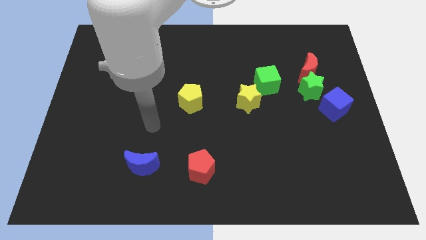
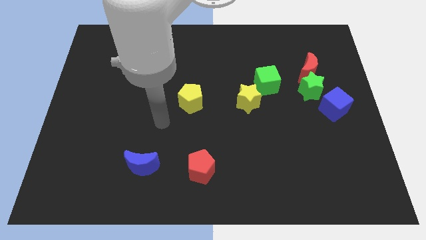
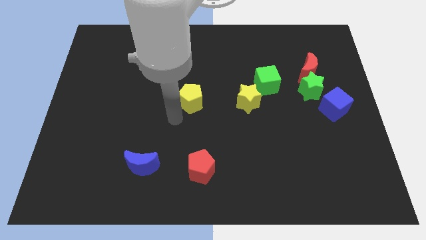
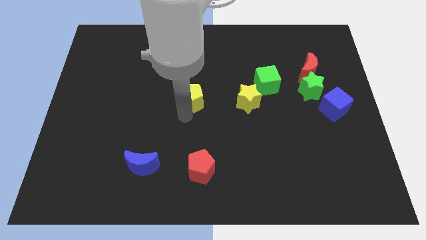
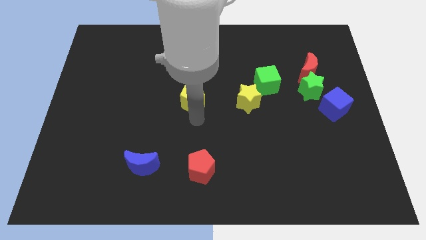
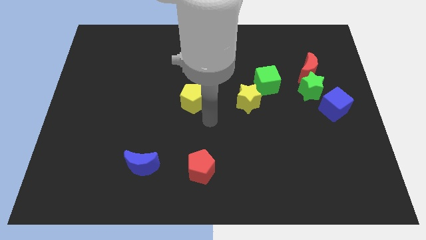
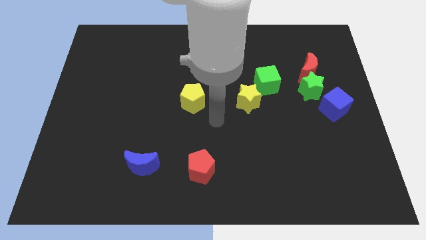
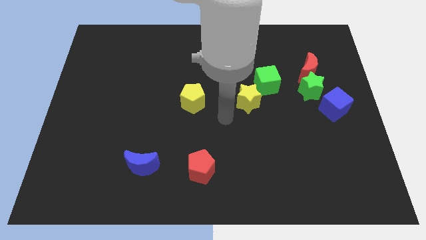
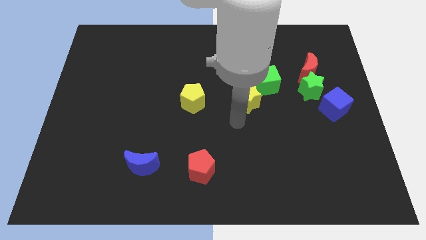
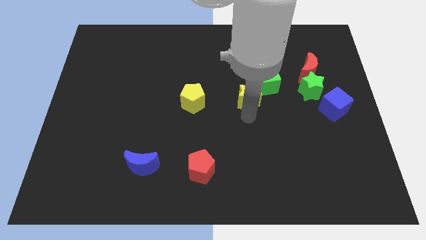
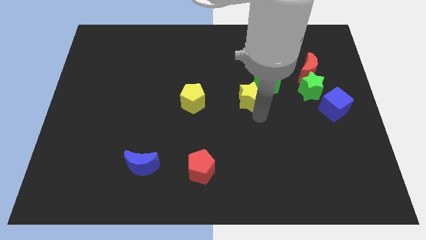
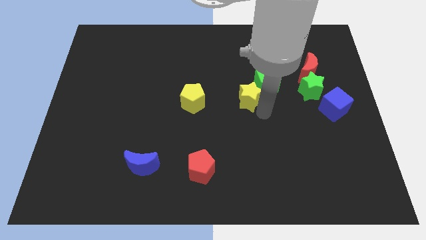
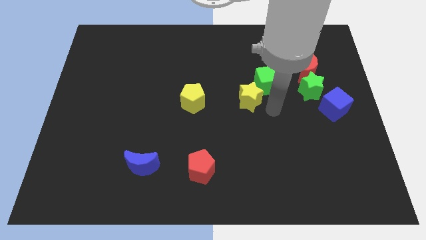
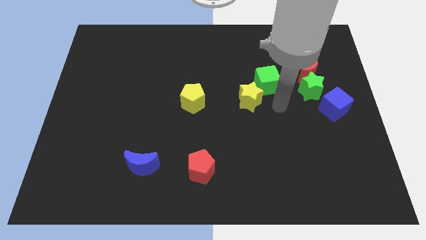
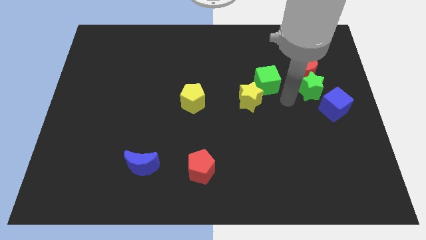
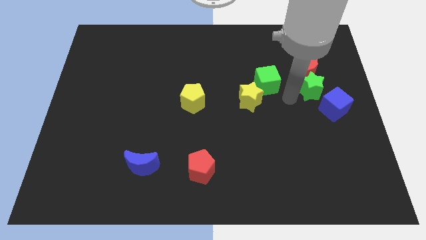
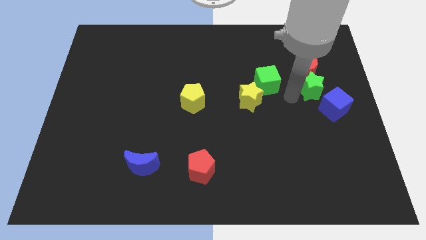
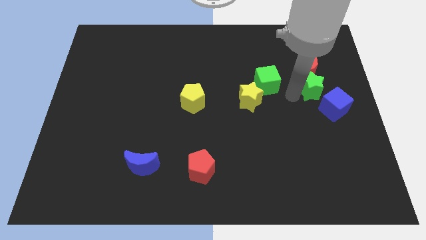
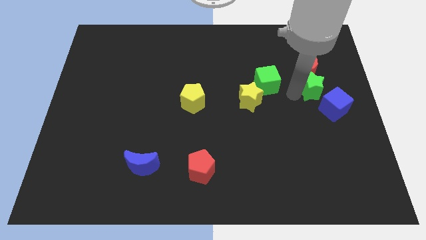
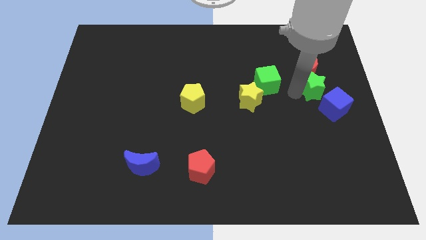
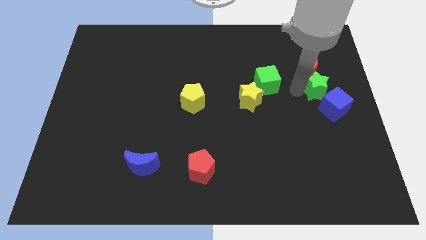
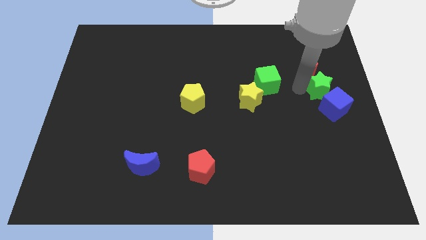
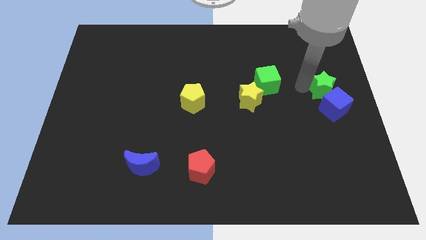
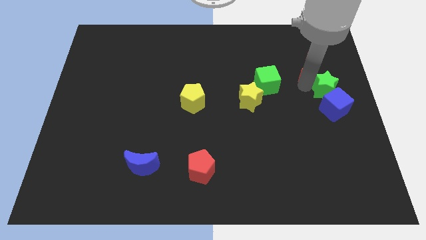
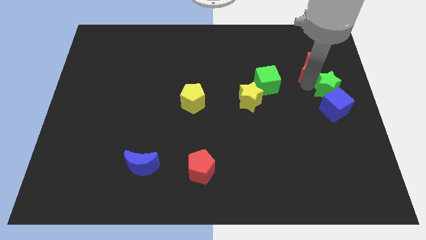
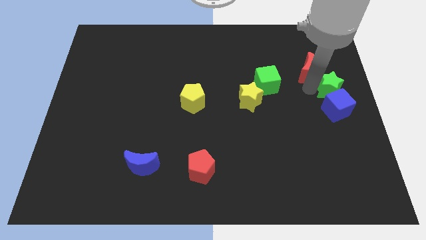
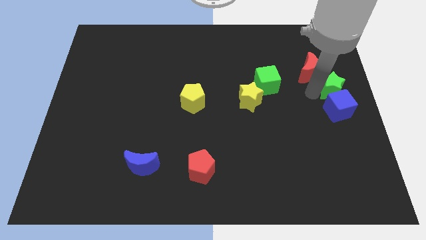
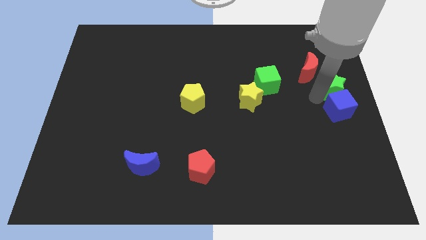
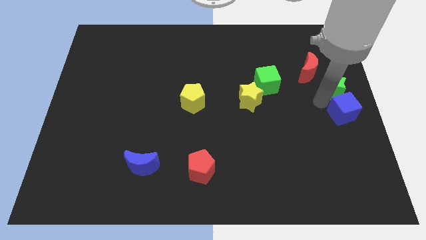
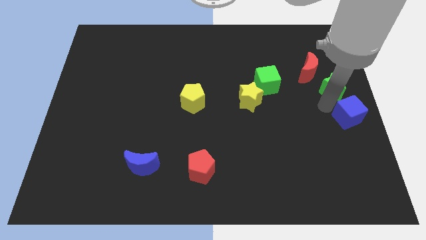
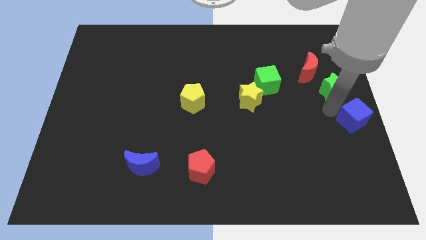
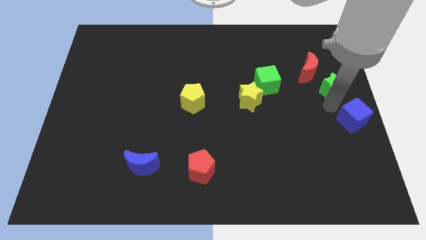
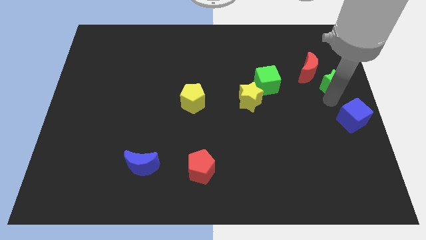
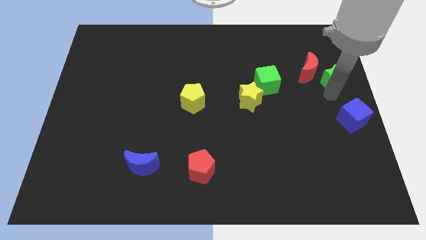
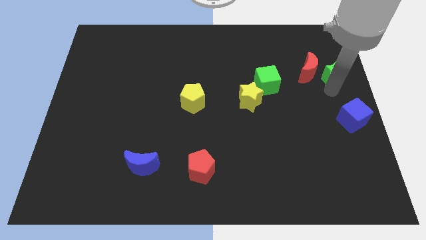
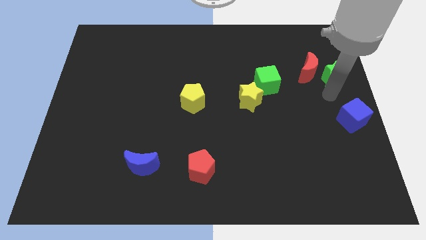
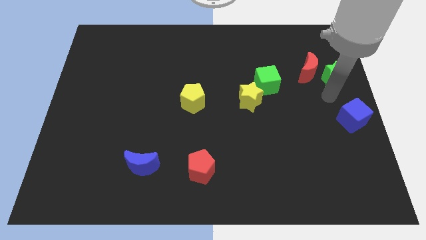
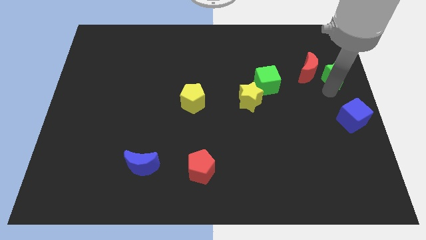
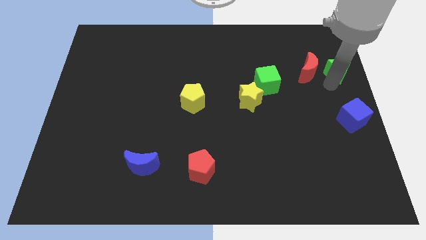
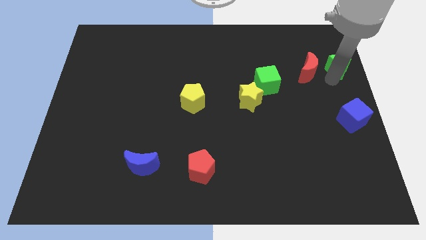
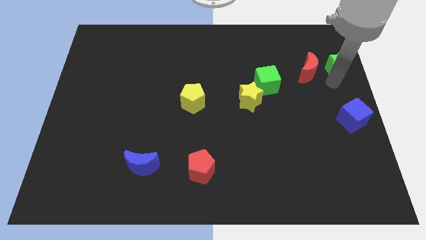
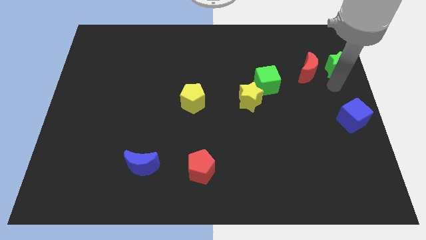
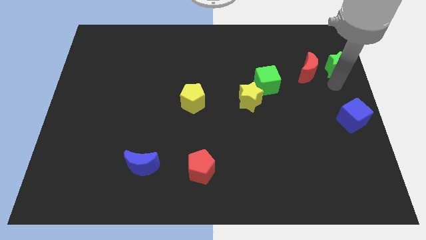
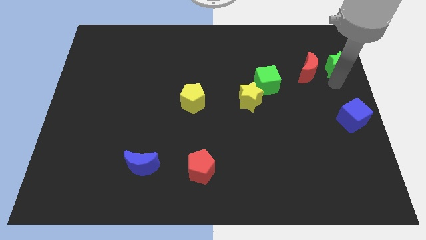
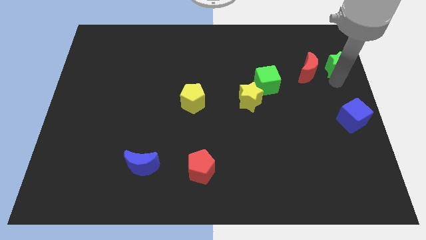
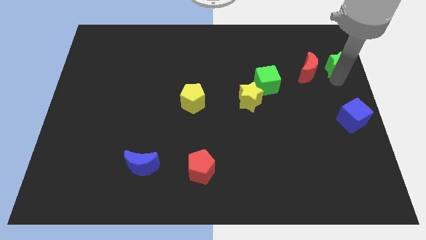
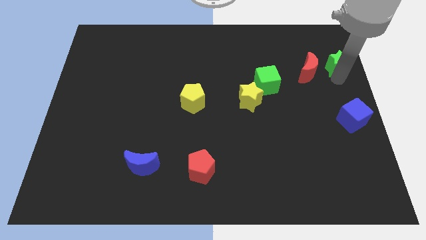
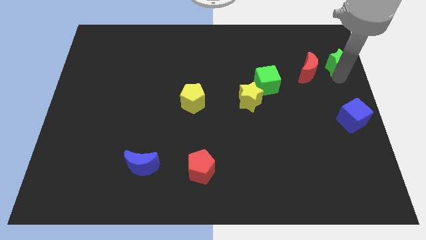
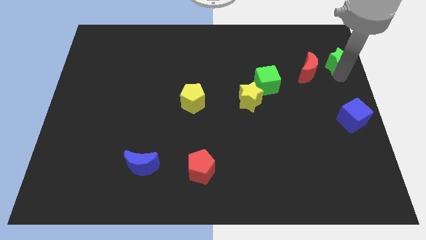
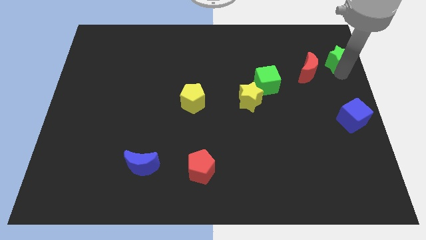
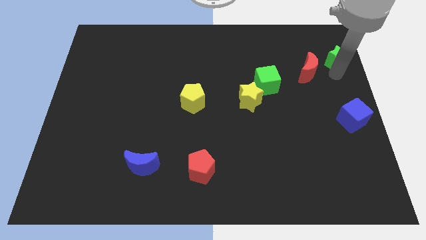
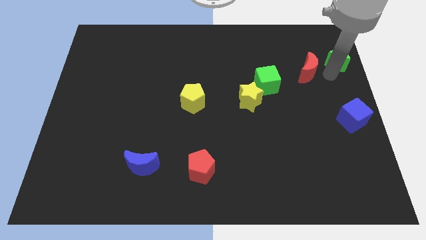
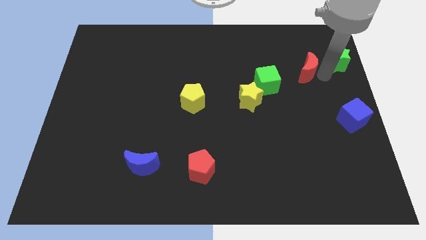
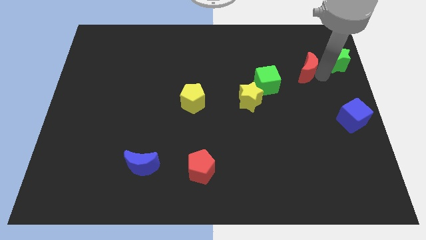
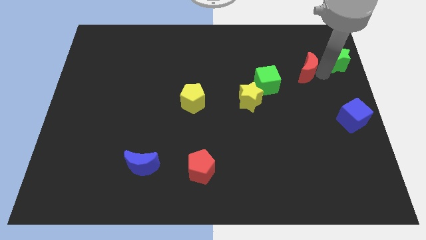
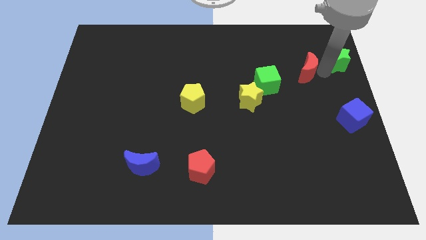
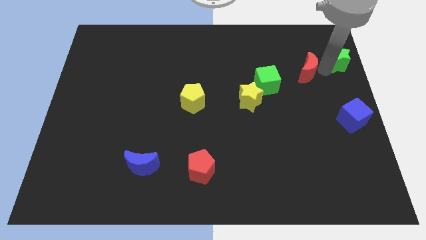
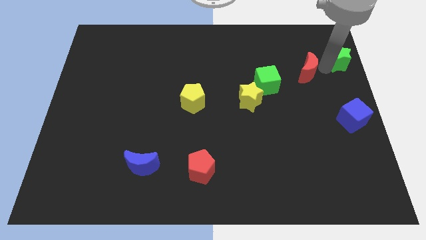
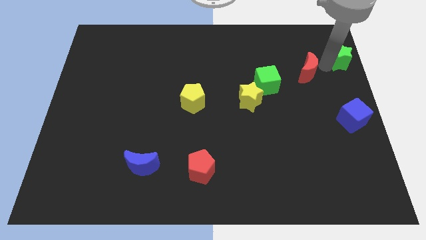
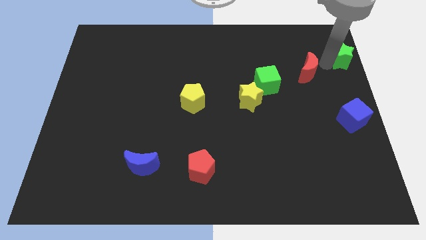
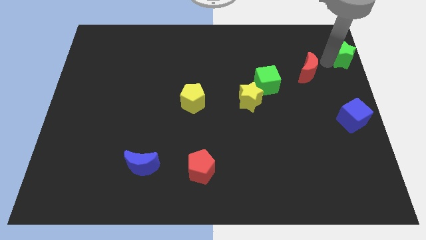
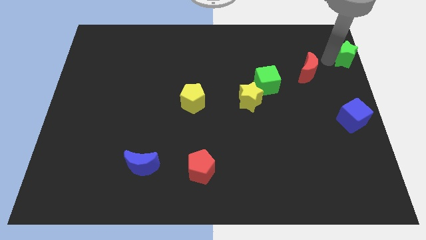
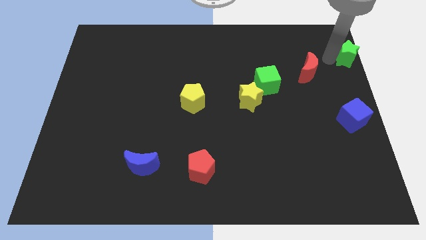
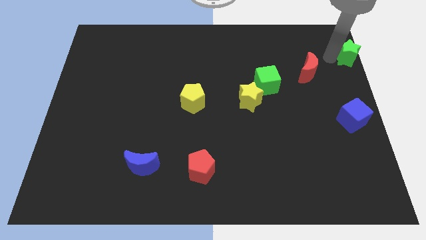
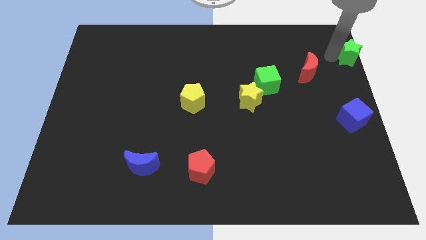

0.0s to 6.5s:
push the green star to the top right
